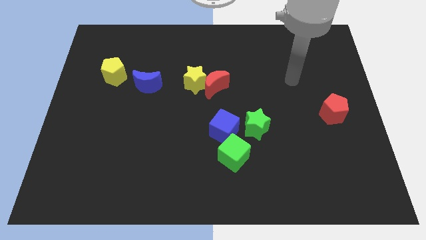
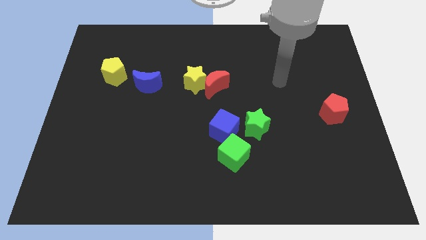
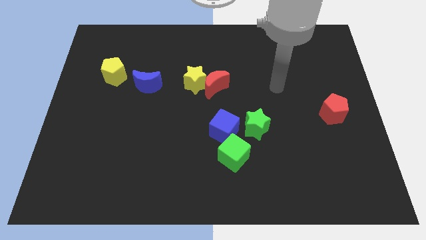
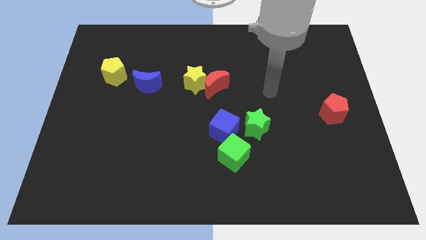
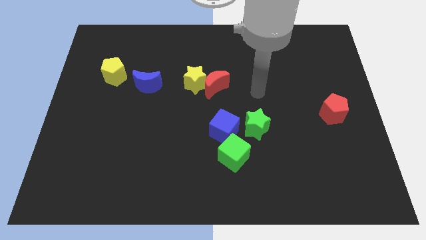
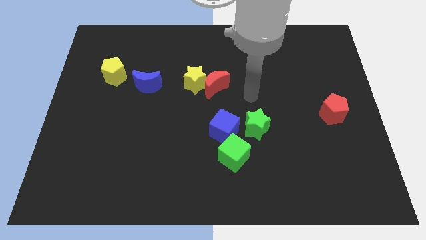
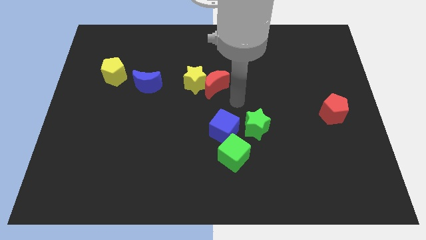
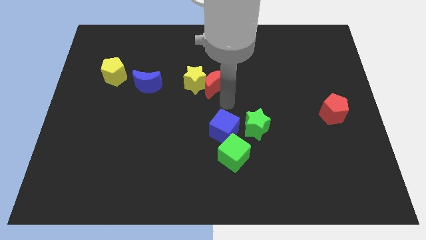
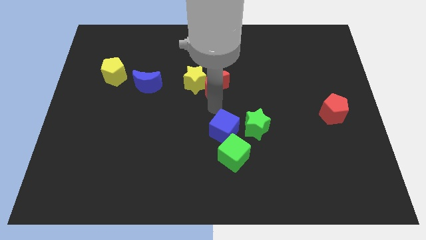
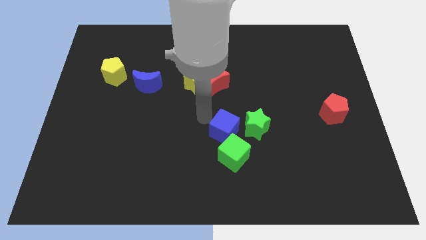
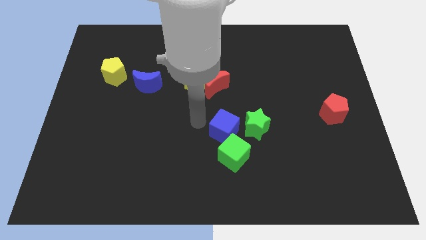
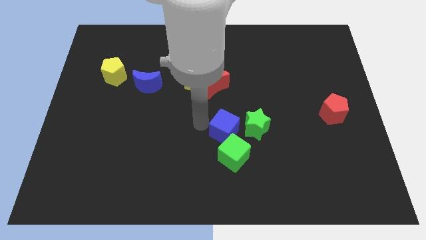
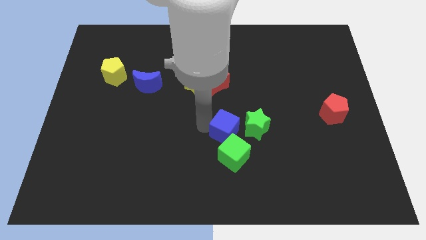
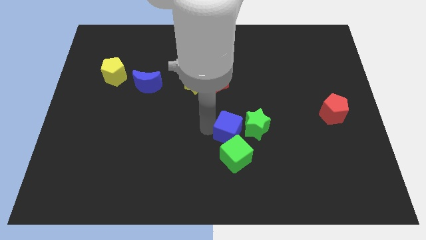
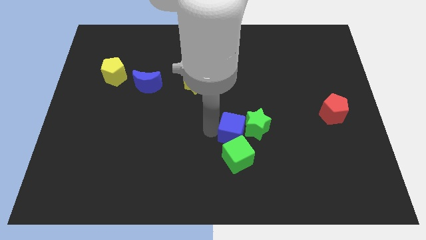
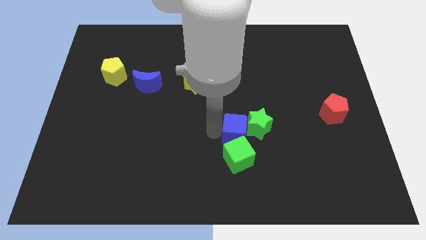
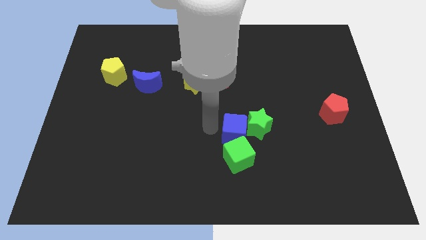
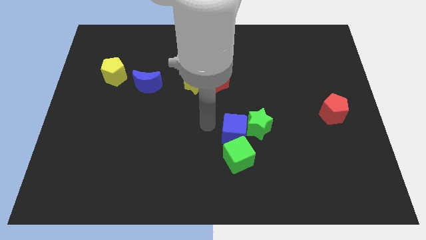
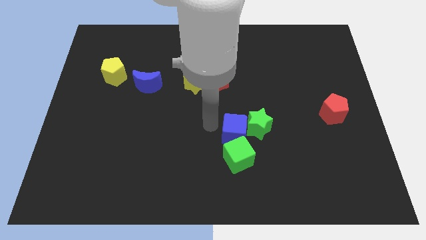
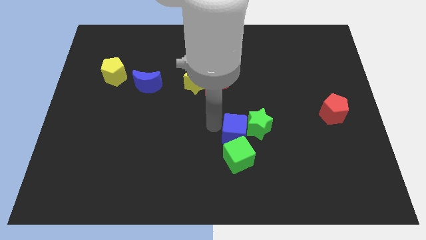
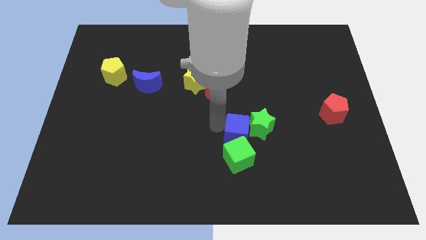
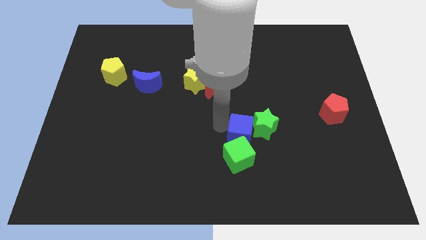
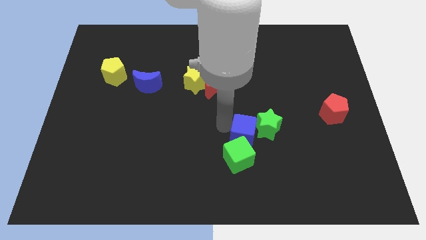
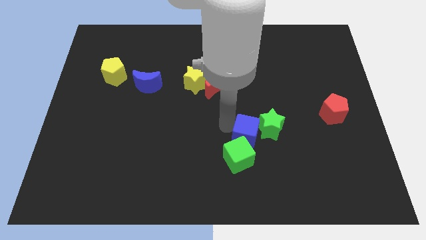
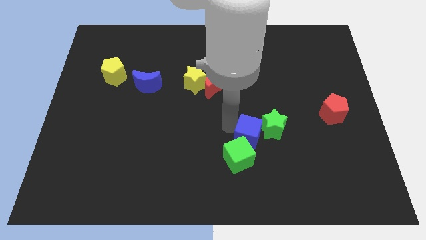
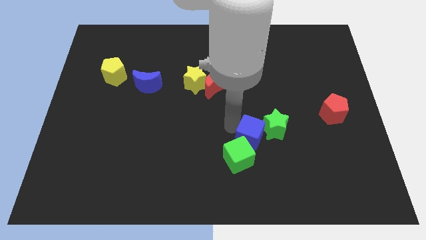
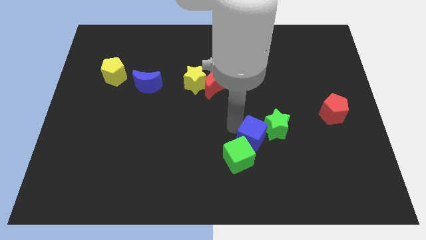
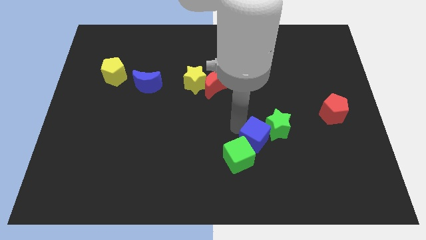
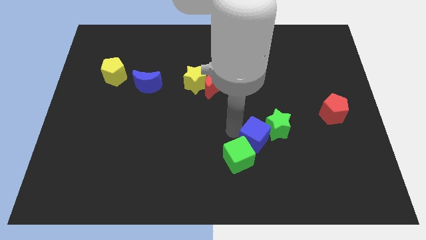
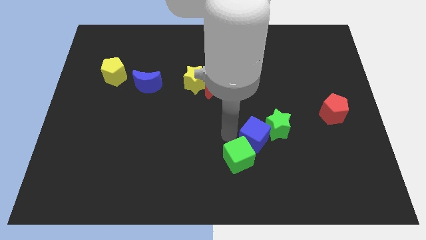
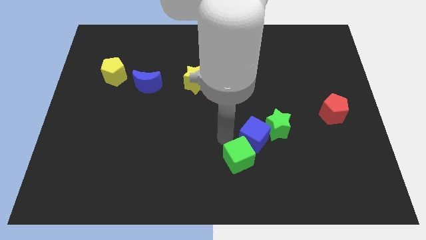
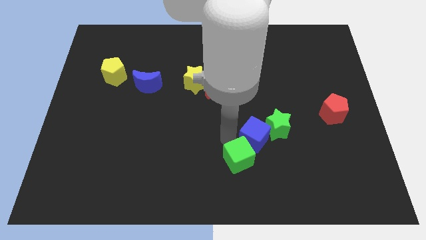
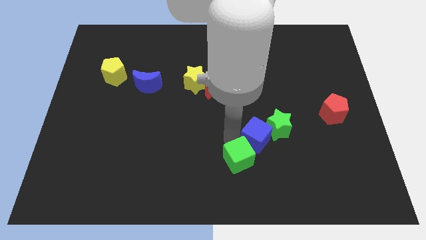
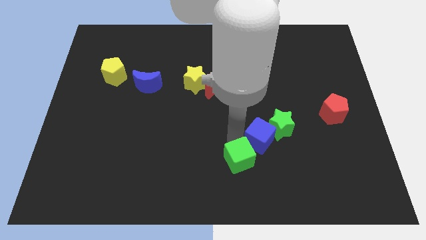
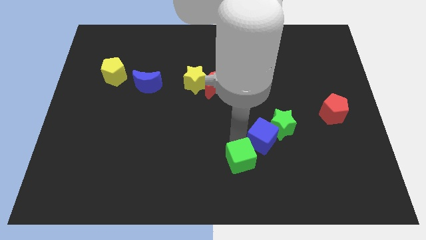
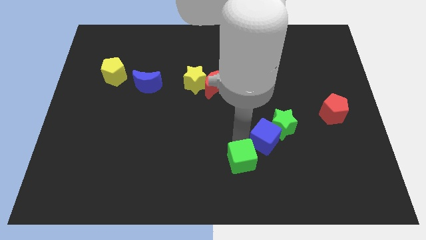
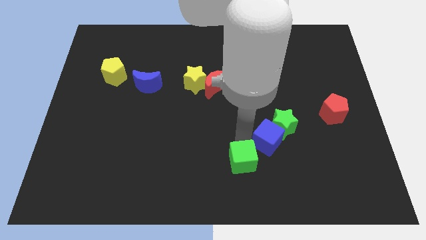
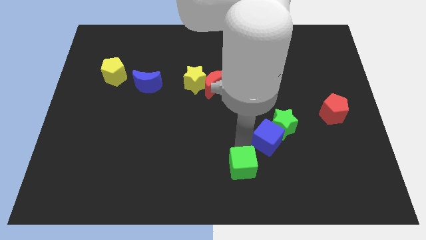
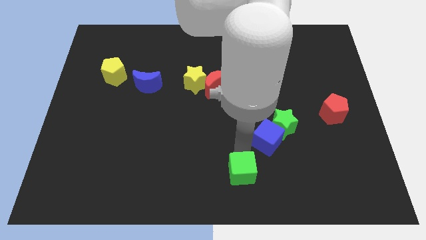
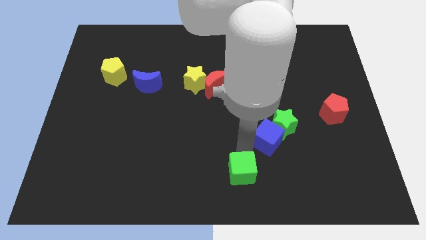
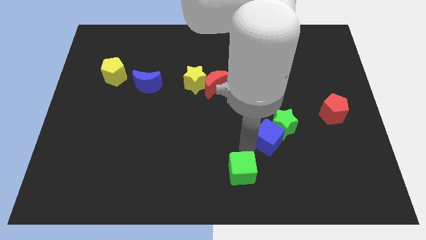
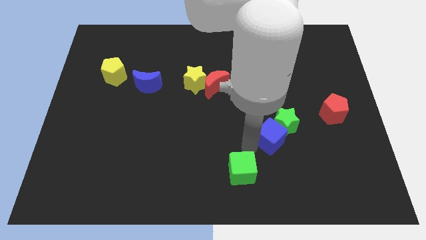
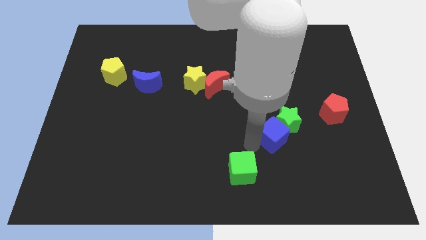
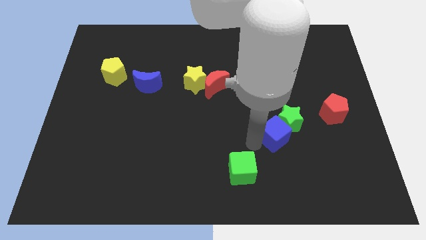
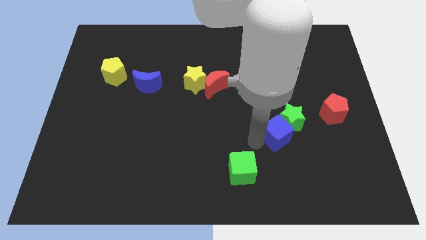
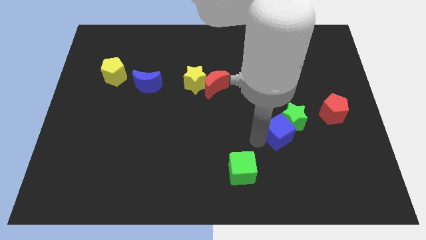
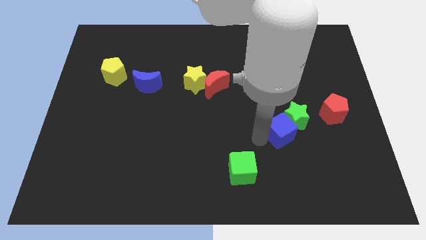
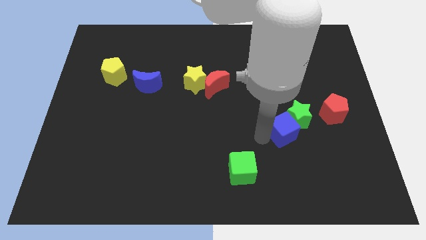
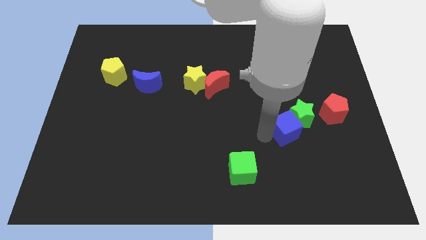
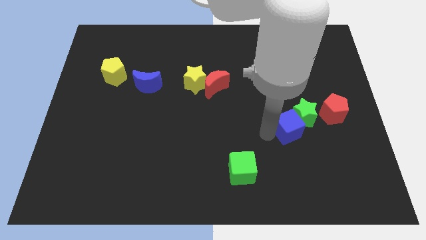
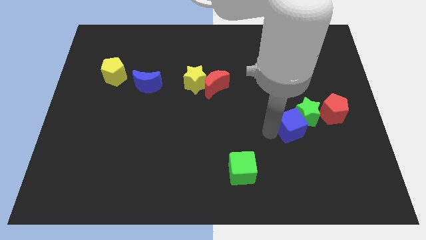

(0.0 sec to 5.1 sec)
slide the blue cube to the bottom left of the red pentagon

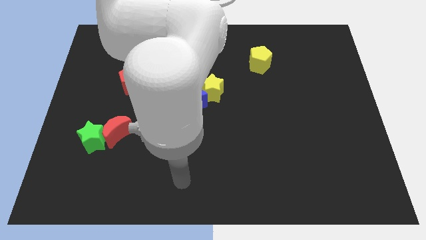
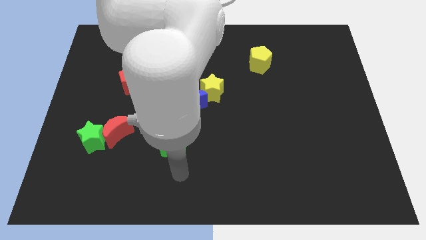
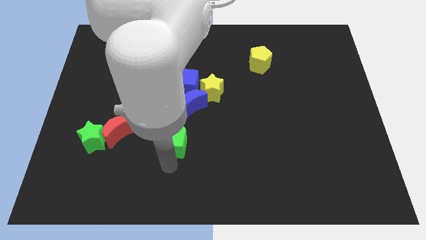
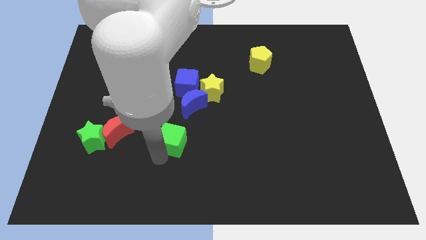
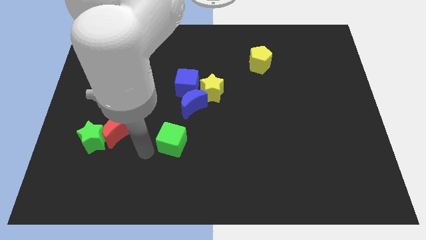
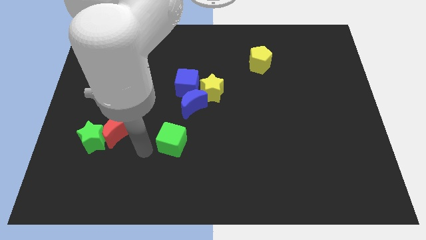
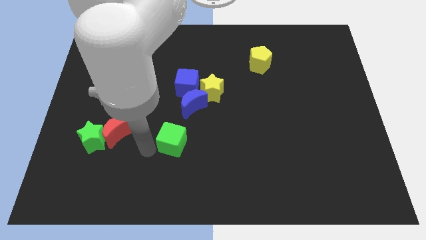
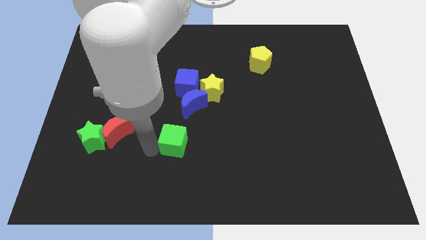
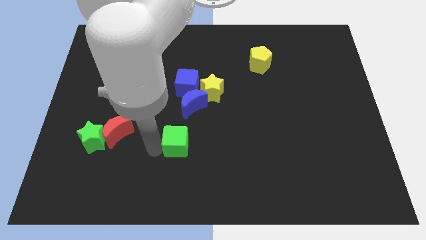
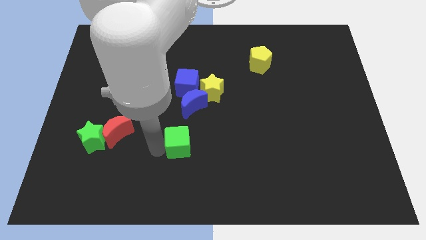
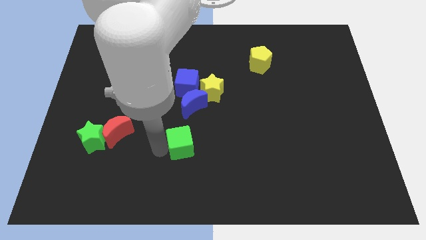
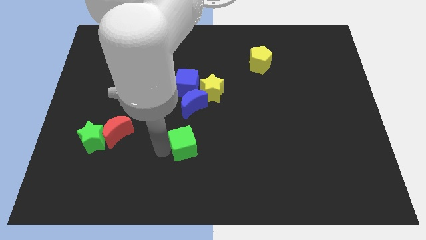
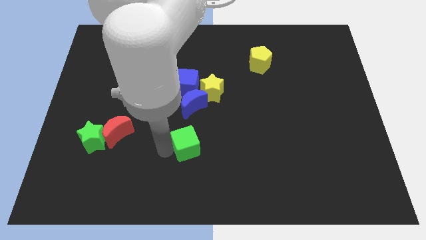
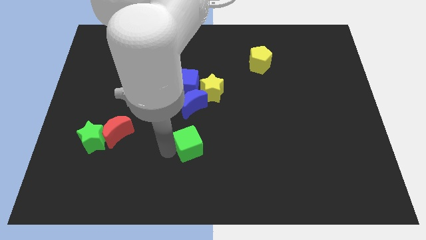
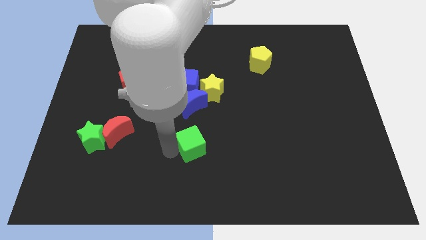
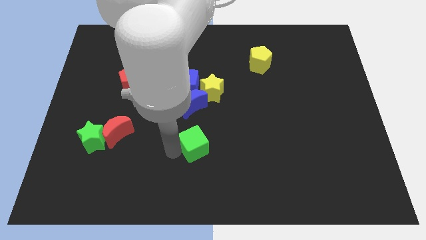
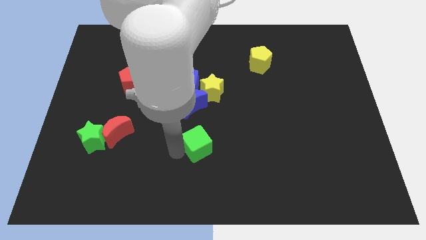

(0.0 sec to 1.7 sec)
push the green cube below the yellow star

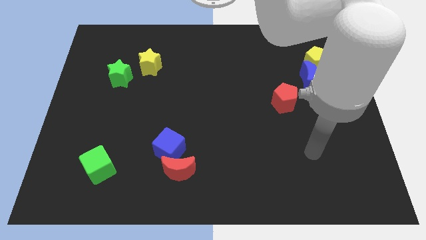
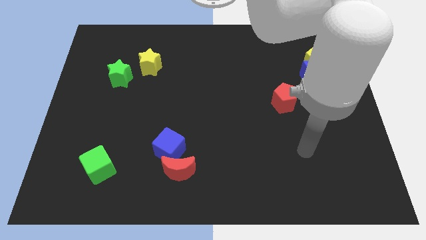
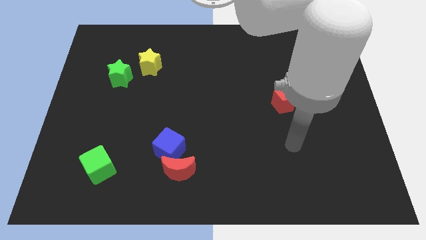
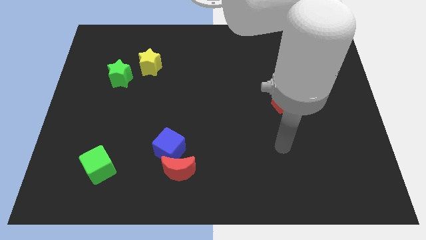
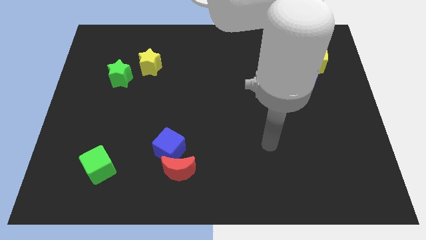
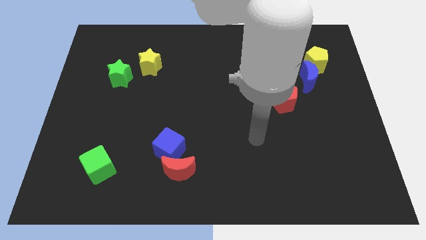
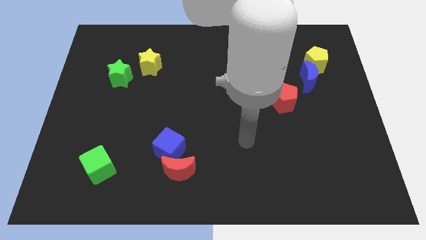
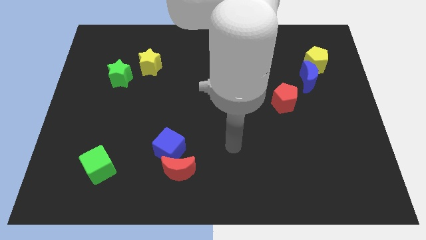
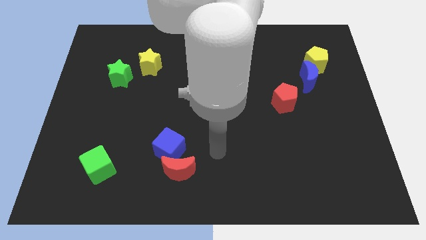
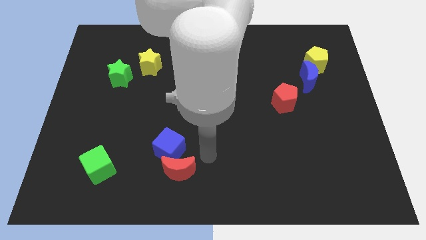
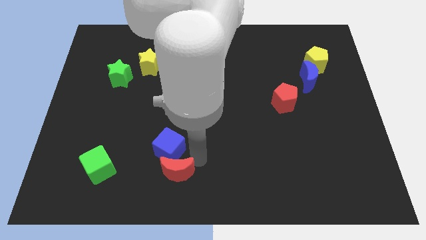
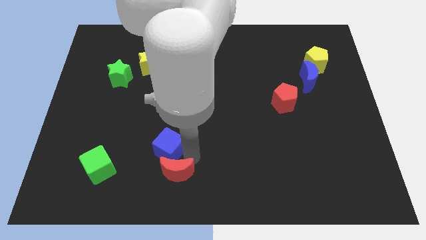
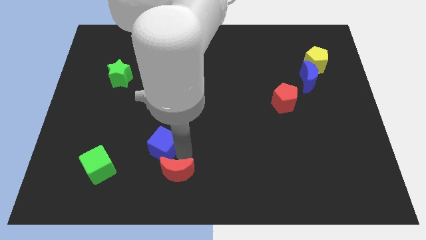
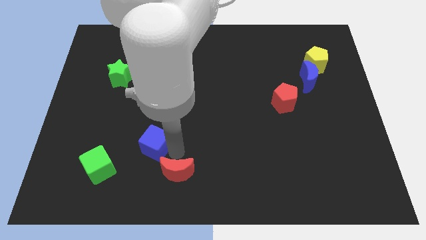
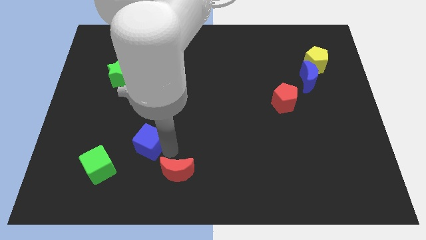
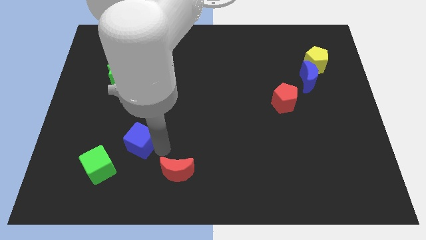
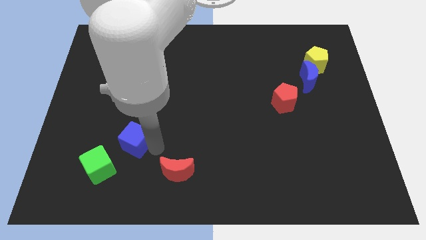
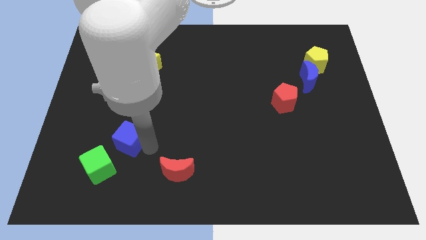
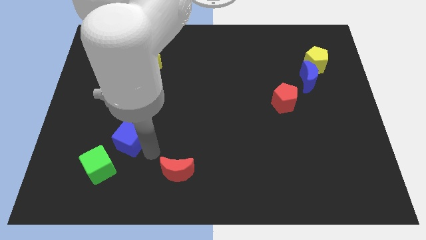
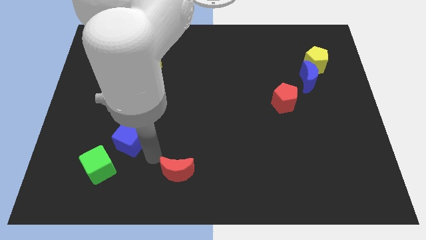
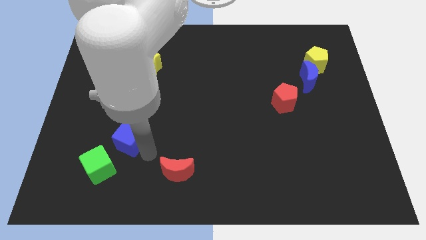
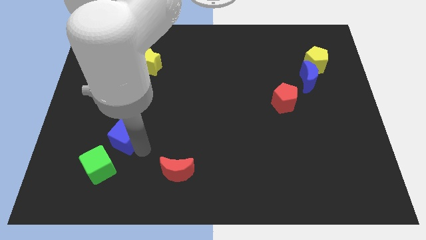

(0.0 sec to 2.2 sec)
put the blue cube to the top side of the green cube
